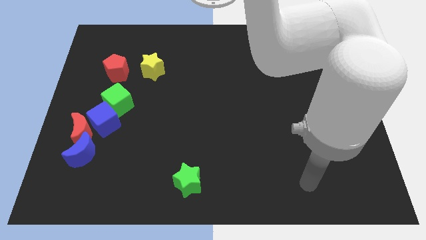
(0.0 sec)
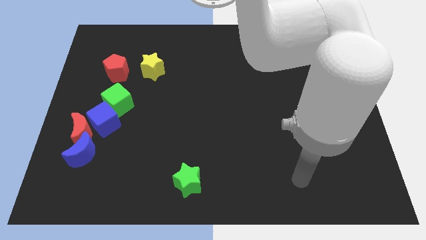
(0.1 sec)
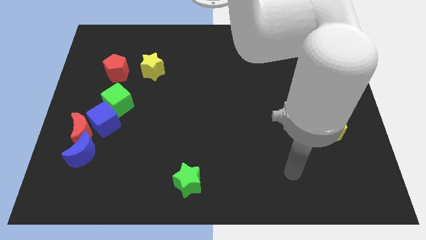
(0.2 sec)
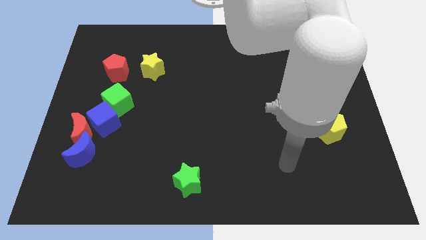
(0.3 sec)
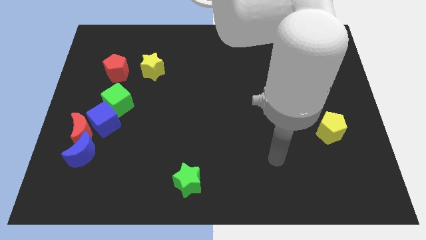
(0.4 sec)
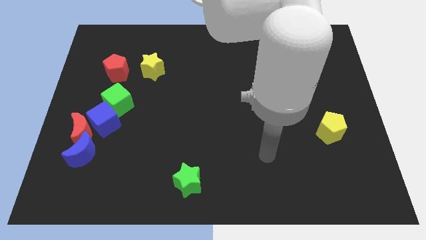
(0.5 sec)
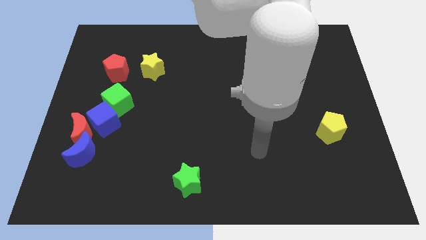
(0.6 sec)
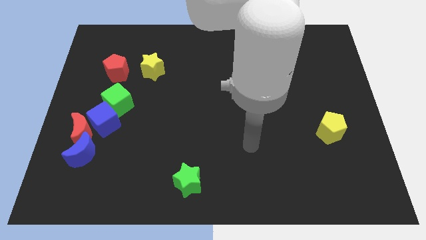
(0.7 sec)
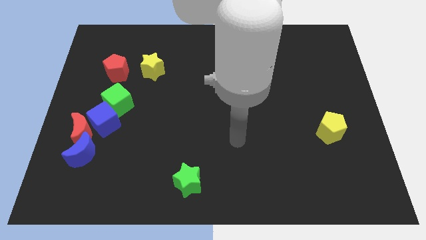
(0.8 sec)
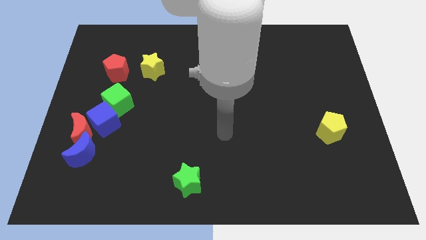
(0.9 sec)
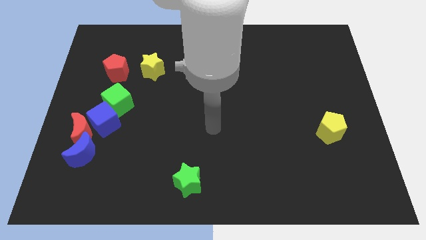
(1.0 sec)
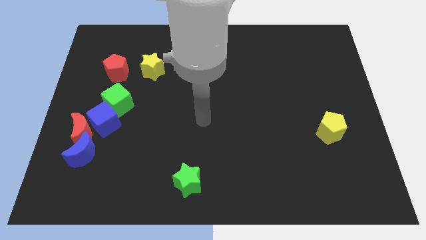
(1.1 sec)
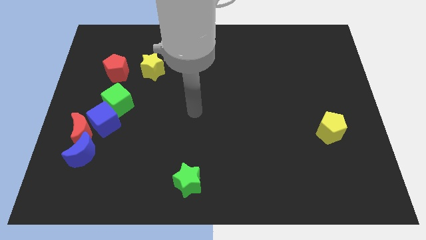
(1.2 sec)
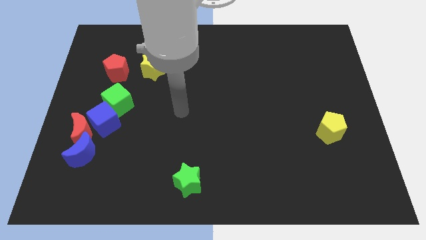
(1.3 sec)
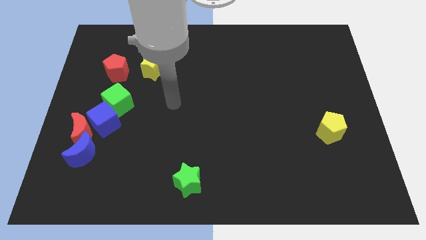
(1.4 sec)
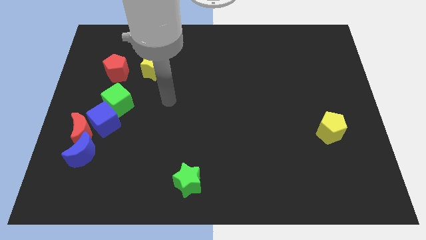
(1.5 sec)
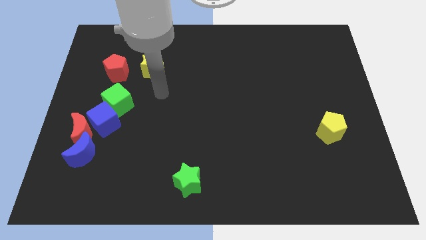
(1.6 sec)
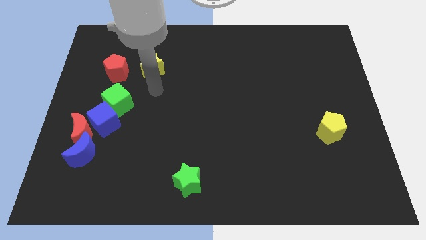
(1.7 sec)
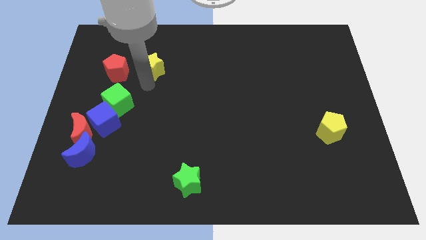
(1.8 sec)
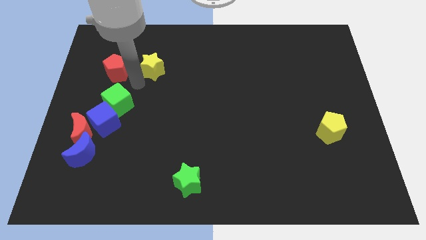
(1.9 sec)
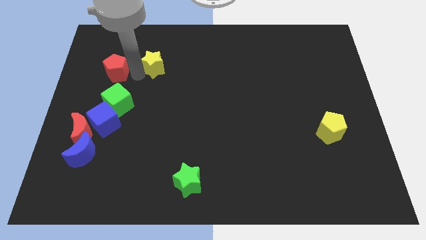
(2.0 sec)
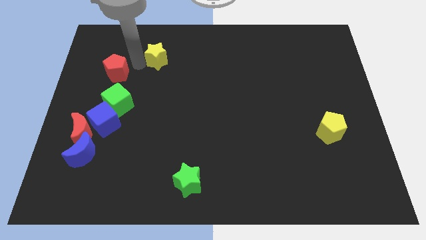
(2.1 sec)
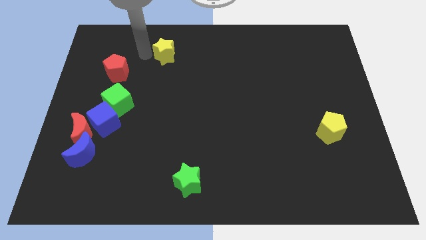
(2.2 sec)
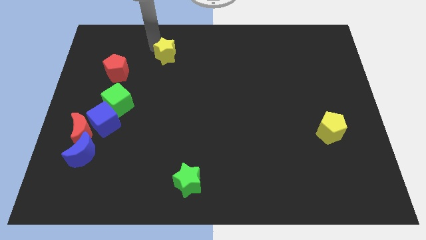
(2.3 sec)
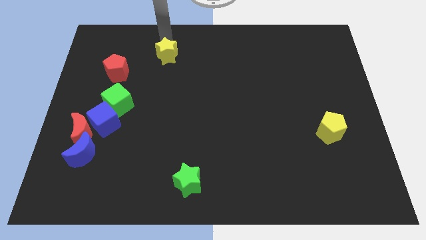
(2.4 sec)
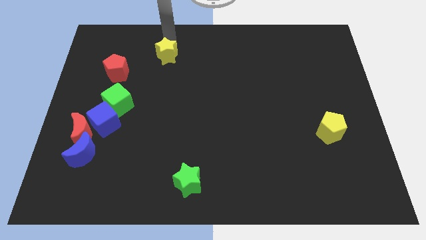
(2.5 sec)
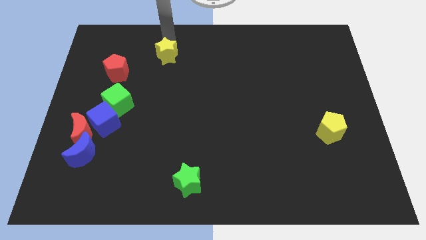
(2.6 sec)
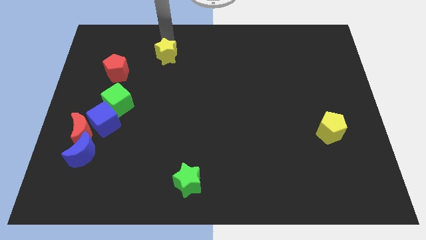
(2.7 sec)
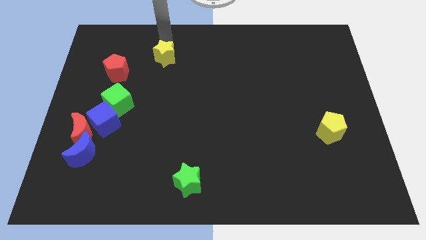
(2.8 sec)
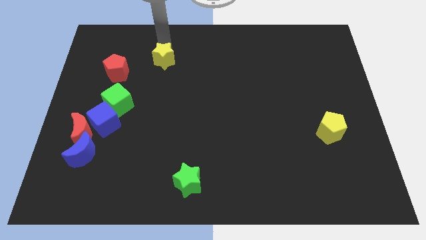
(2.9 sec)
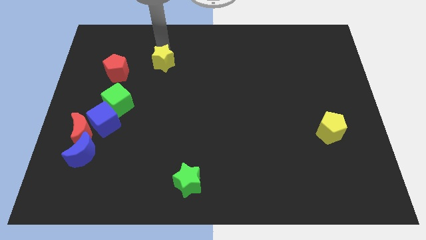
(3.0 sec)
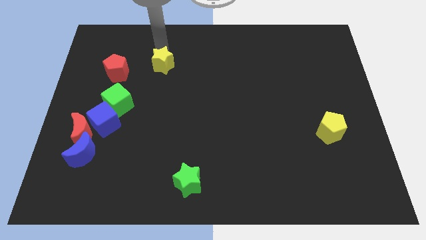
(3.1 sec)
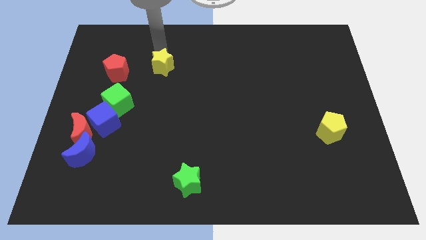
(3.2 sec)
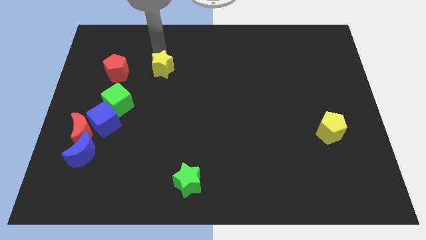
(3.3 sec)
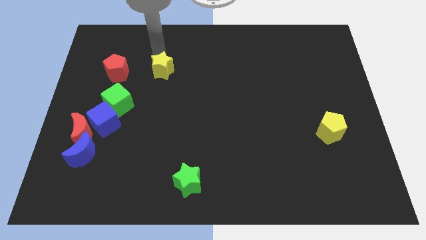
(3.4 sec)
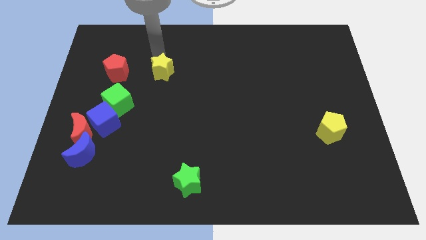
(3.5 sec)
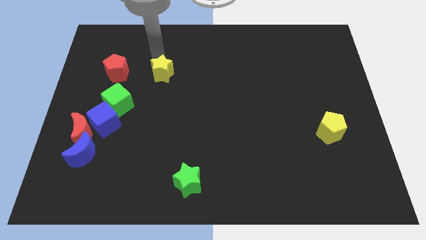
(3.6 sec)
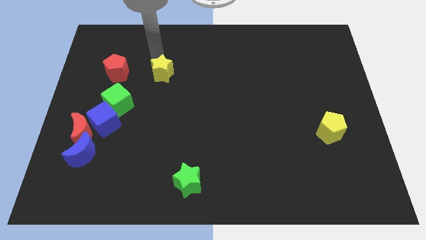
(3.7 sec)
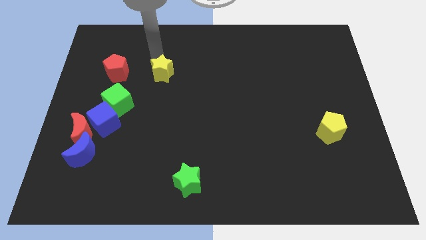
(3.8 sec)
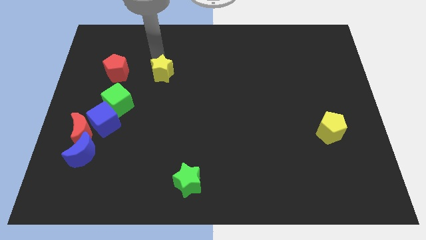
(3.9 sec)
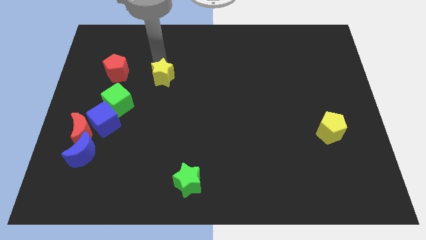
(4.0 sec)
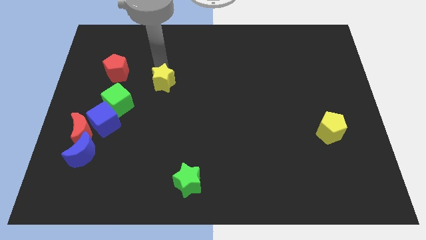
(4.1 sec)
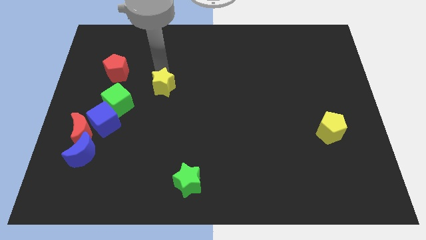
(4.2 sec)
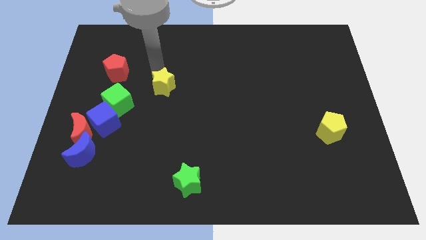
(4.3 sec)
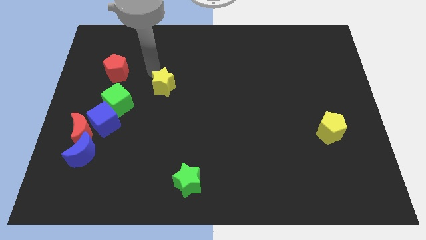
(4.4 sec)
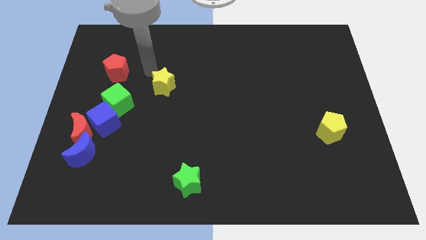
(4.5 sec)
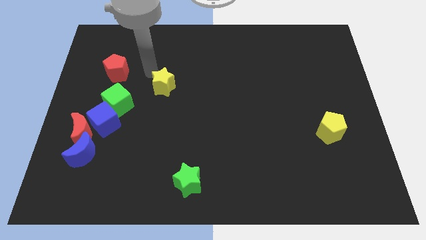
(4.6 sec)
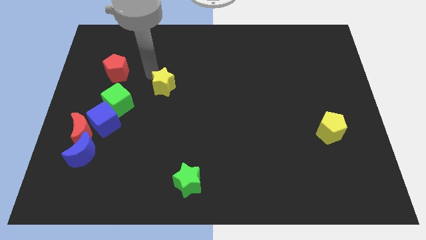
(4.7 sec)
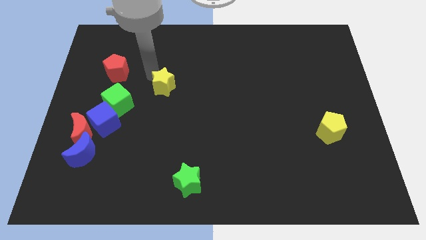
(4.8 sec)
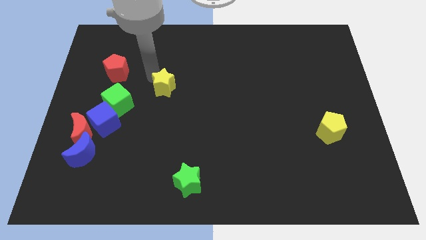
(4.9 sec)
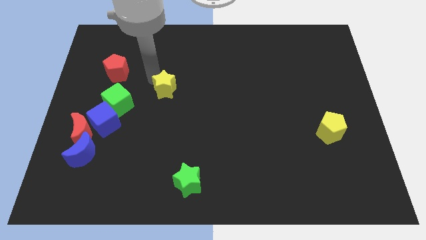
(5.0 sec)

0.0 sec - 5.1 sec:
slide the yellow star slightly down and then right

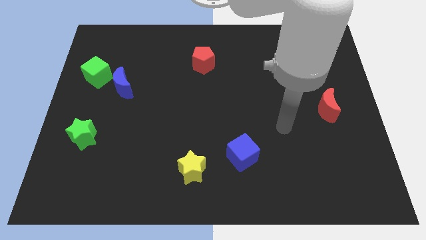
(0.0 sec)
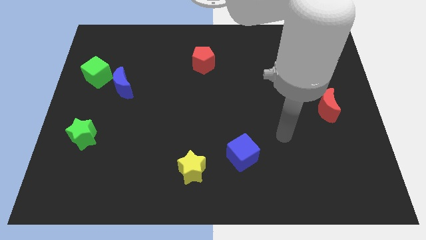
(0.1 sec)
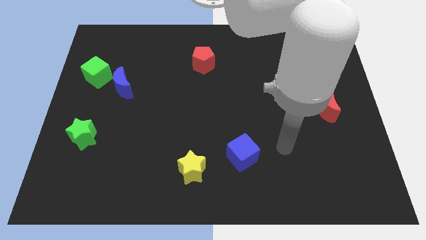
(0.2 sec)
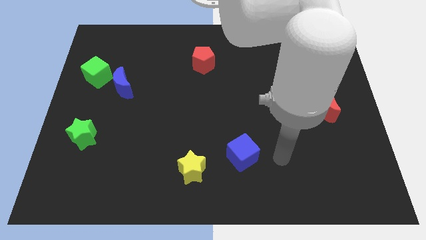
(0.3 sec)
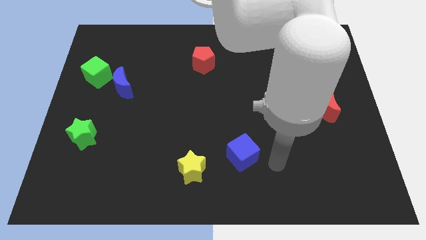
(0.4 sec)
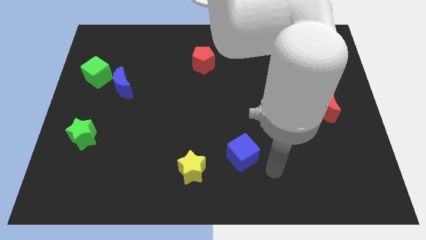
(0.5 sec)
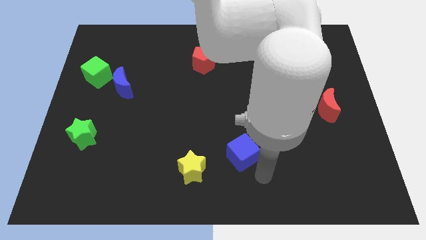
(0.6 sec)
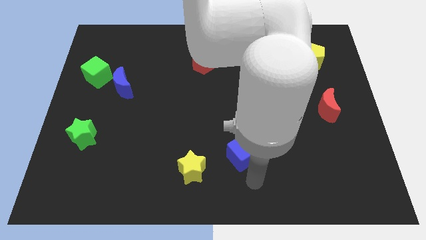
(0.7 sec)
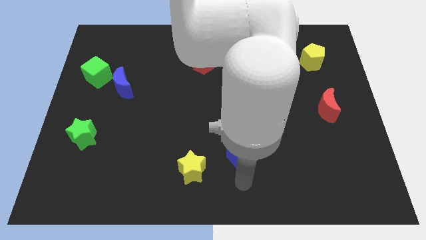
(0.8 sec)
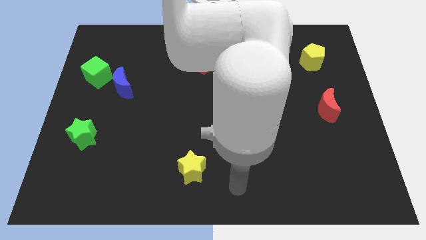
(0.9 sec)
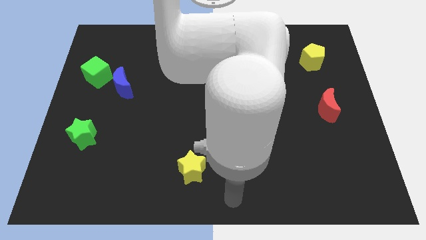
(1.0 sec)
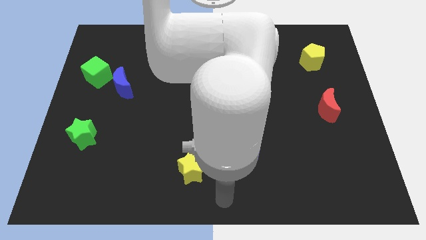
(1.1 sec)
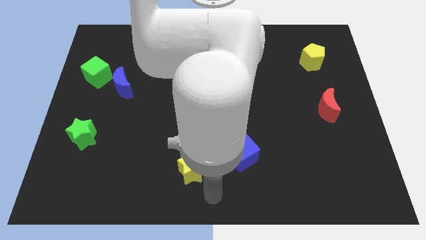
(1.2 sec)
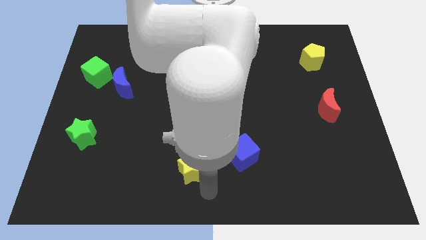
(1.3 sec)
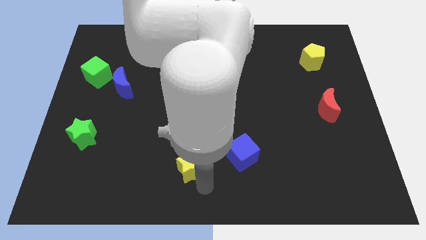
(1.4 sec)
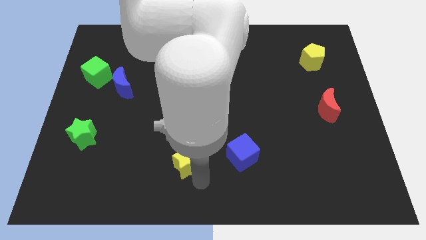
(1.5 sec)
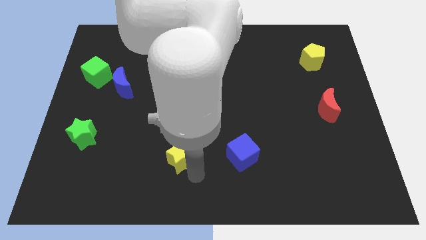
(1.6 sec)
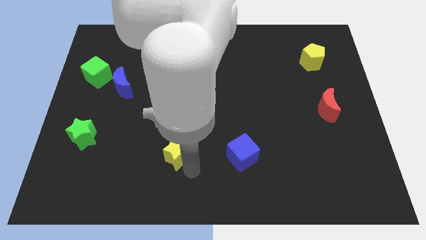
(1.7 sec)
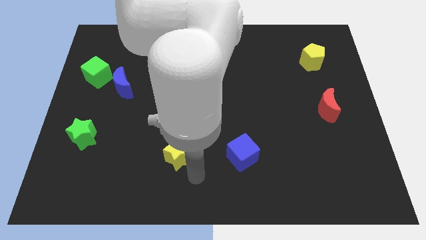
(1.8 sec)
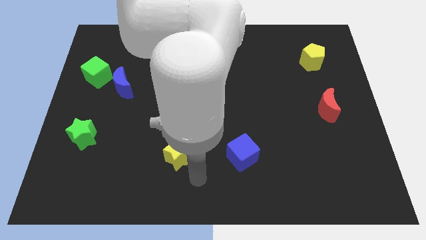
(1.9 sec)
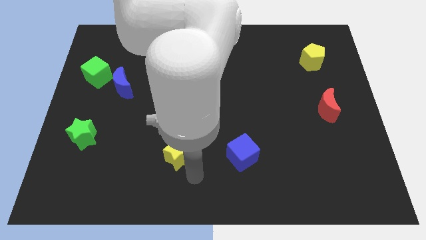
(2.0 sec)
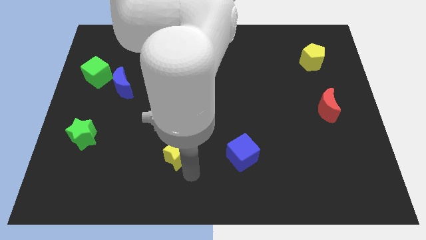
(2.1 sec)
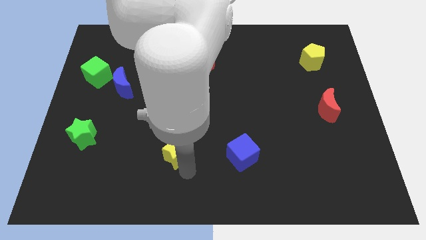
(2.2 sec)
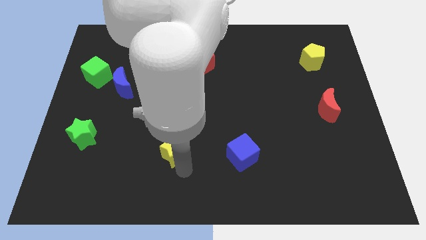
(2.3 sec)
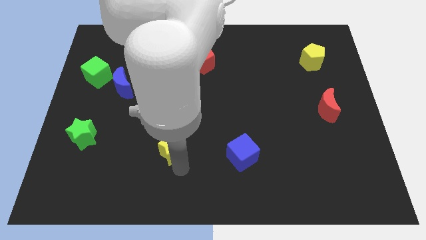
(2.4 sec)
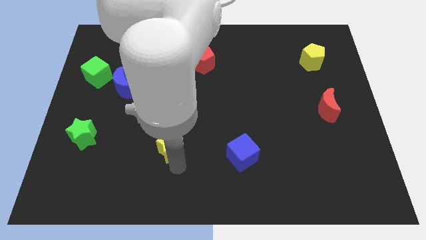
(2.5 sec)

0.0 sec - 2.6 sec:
slightly push the yellow star diagonally up and to the left

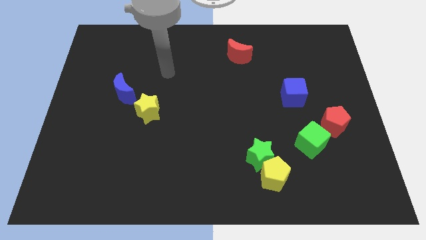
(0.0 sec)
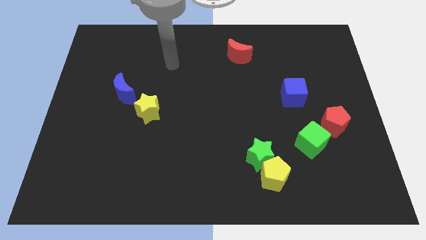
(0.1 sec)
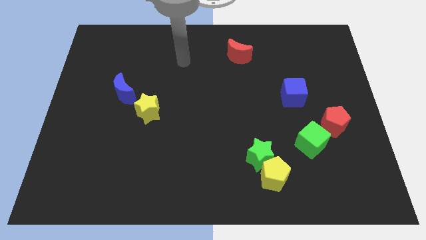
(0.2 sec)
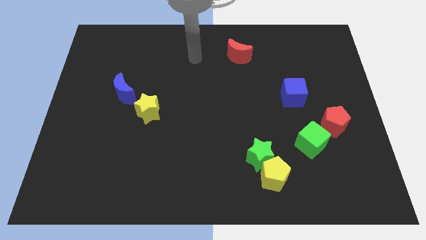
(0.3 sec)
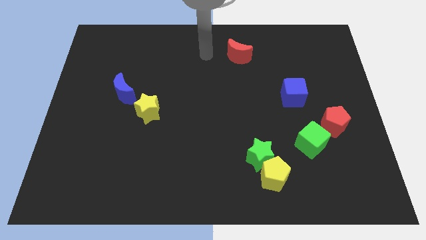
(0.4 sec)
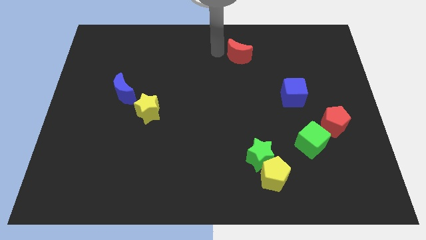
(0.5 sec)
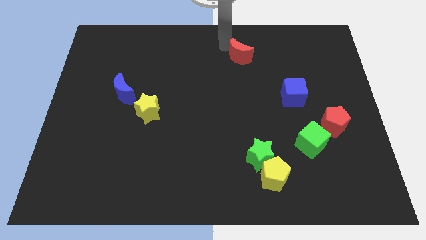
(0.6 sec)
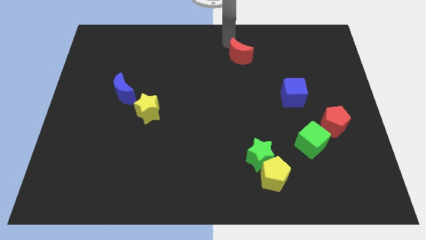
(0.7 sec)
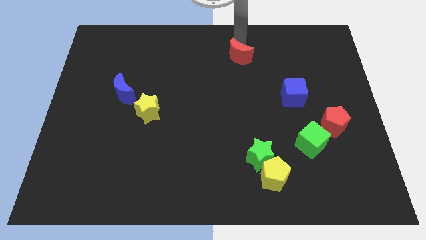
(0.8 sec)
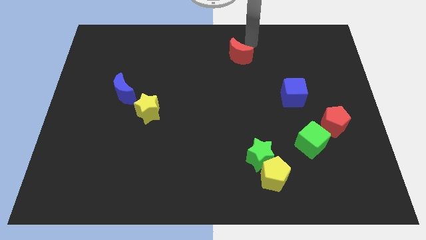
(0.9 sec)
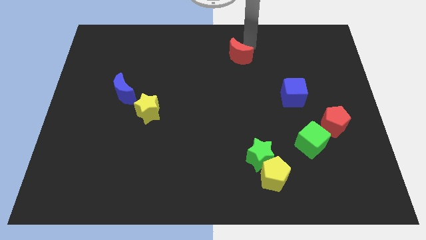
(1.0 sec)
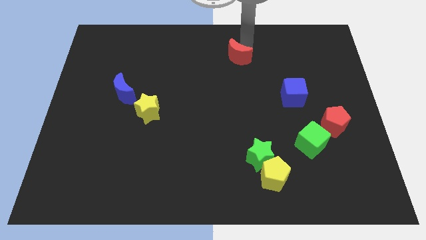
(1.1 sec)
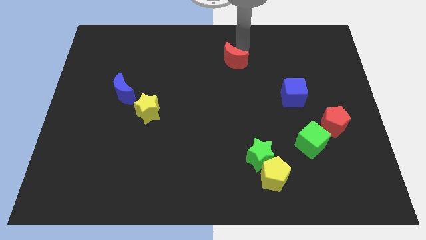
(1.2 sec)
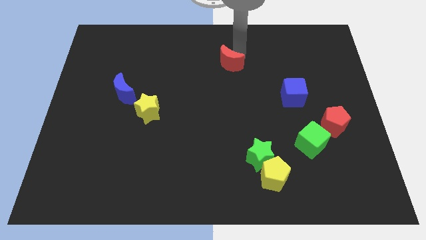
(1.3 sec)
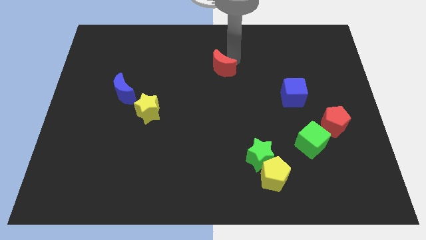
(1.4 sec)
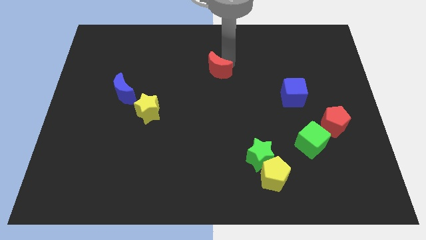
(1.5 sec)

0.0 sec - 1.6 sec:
move the red moon down and to the left somewhat
